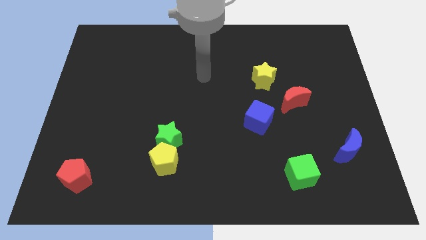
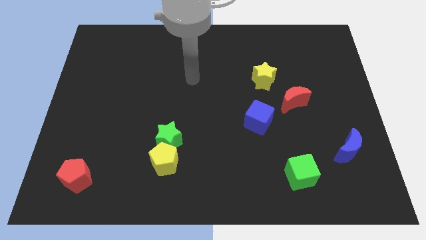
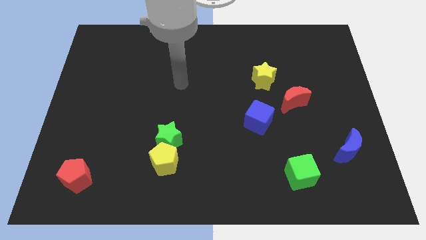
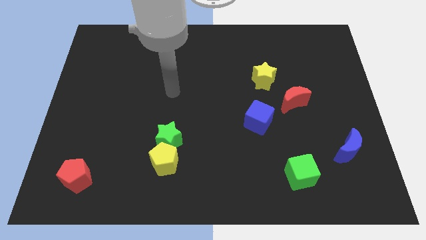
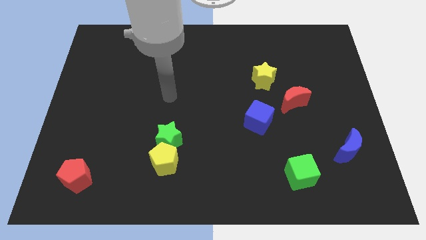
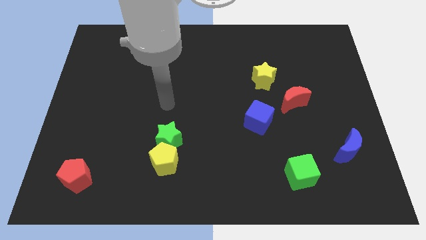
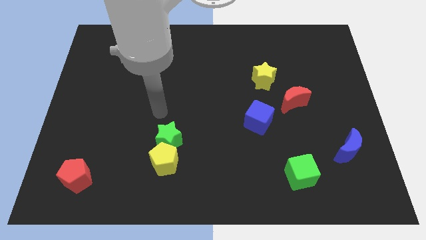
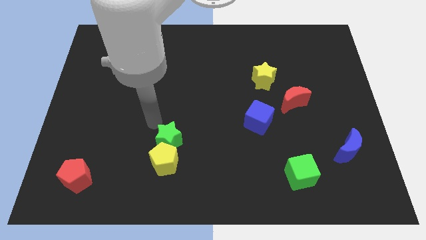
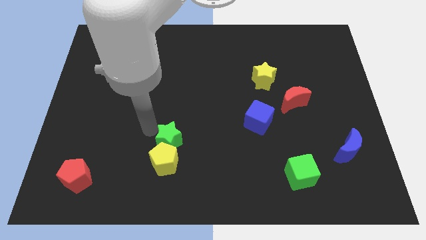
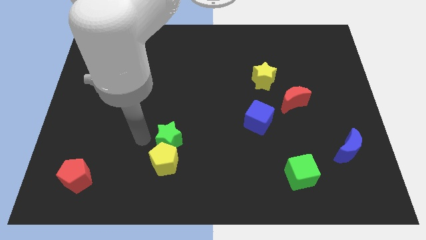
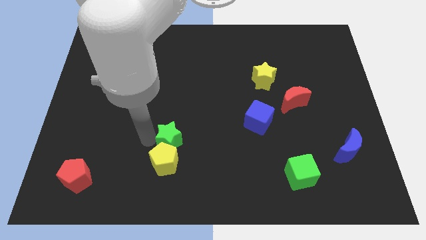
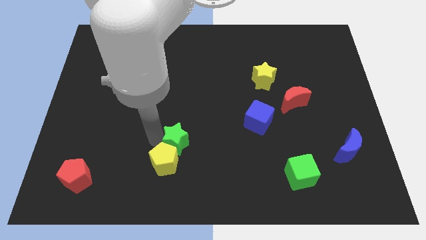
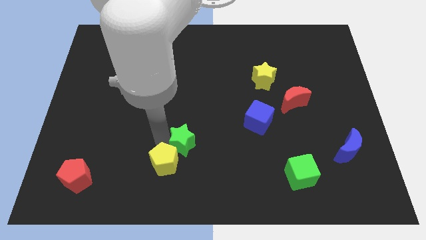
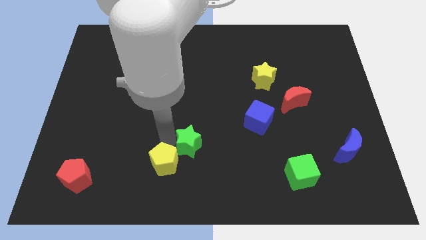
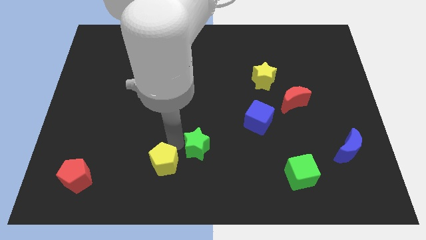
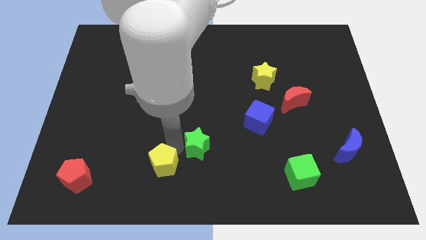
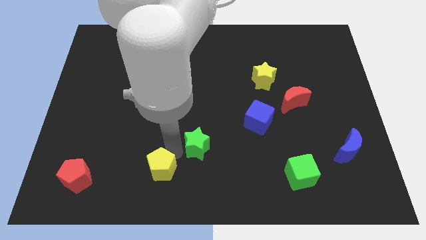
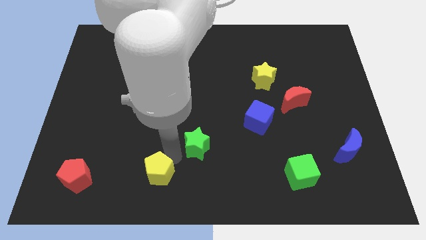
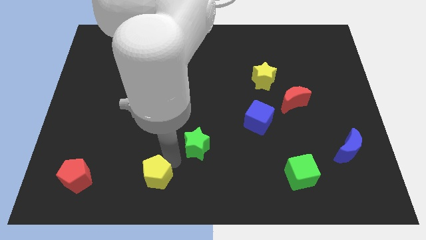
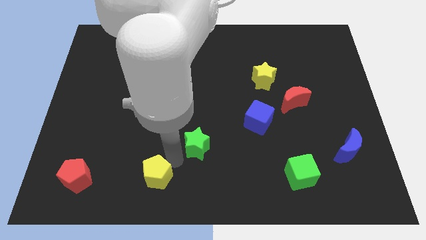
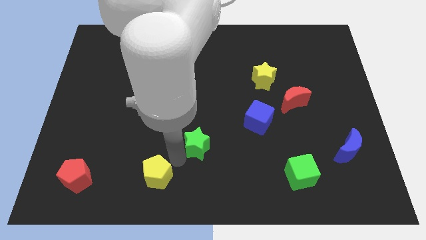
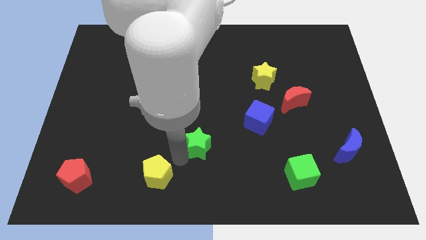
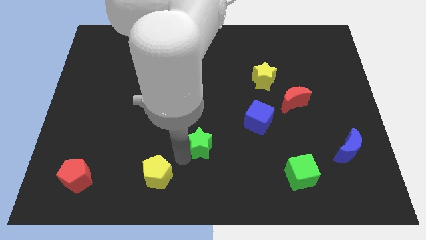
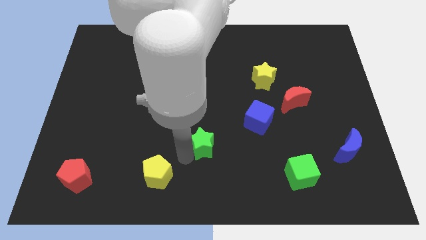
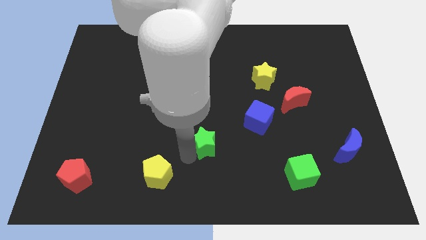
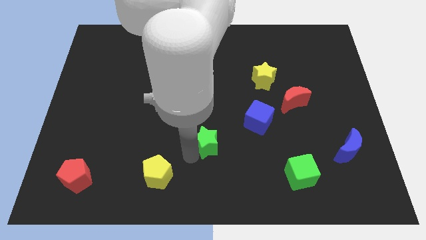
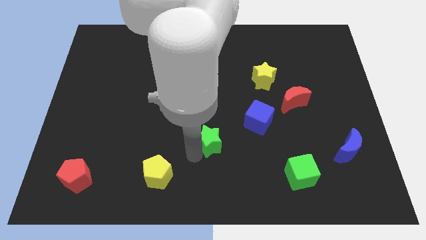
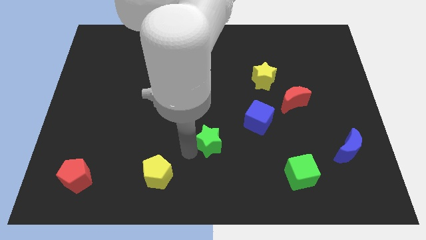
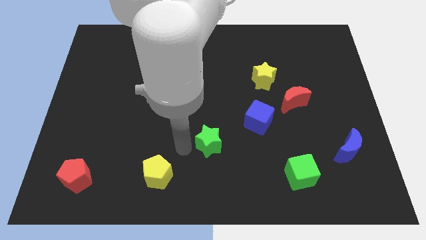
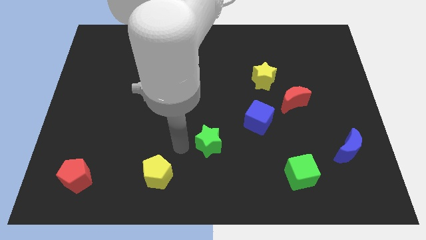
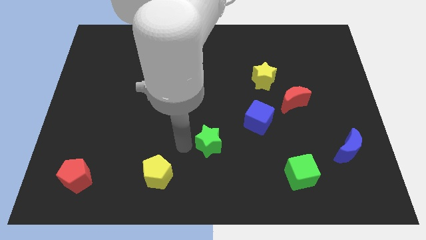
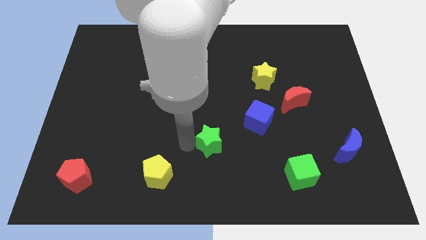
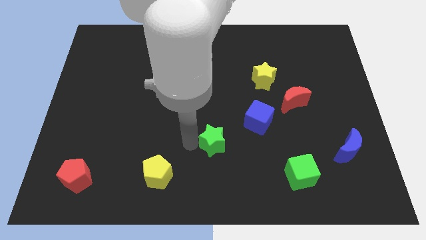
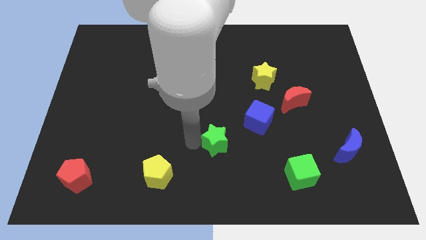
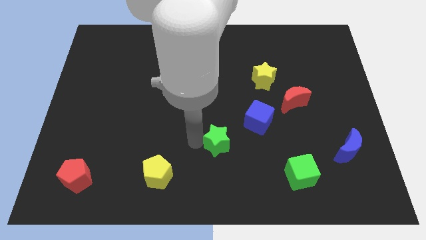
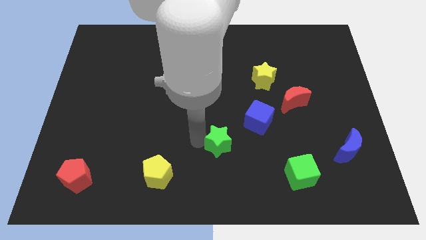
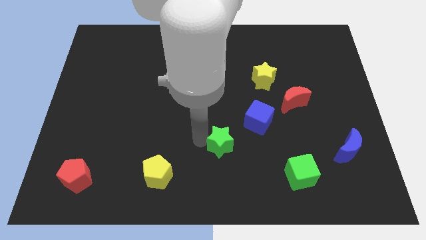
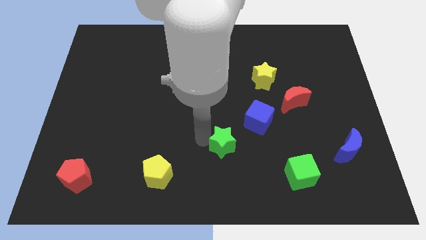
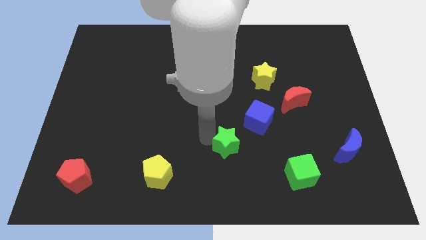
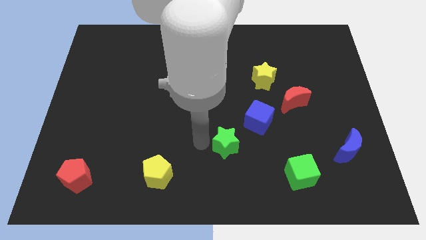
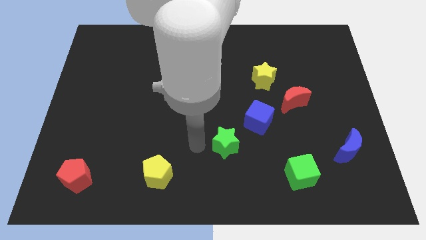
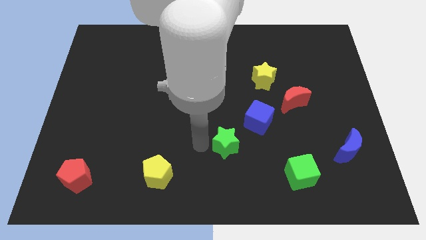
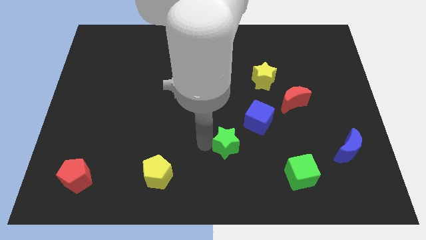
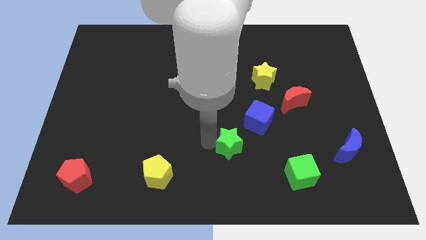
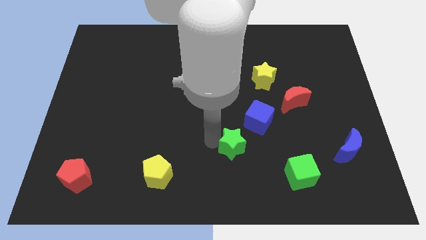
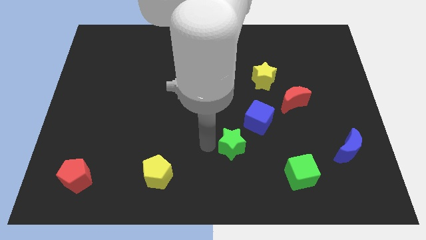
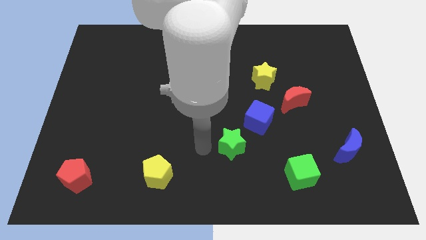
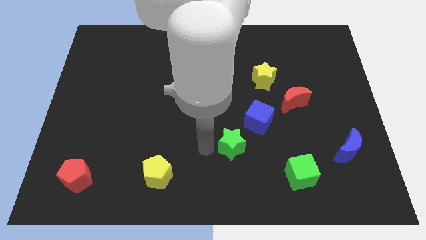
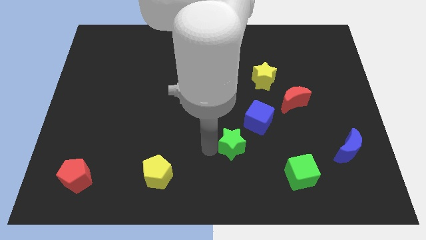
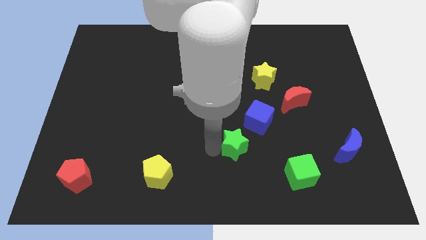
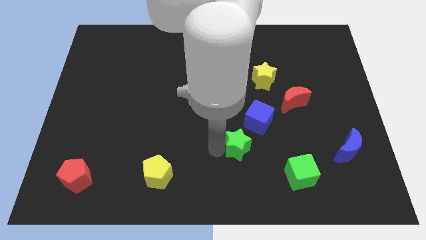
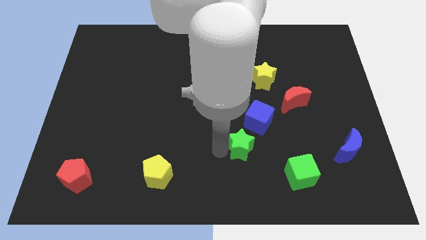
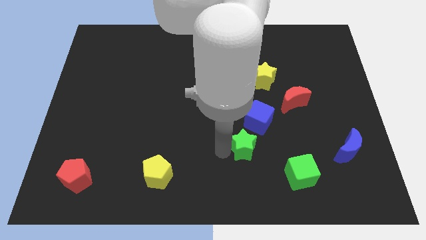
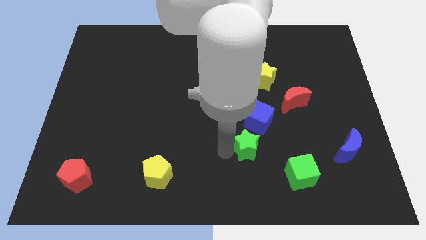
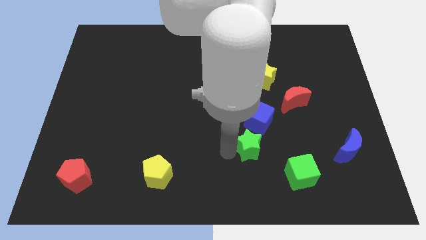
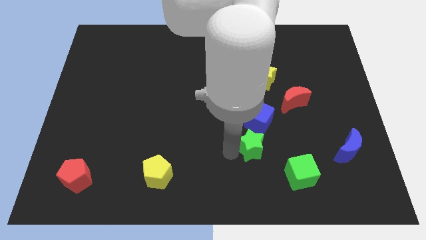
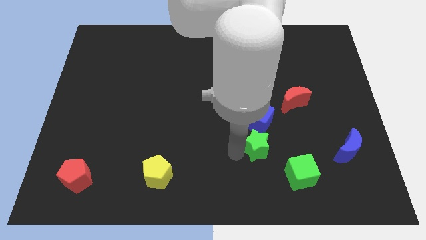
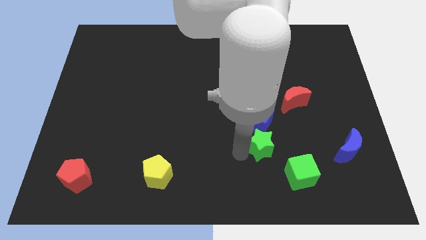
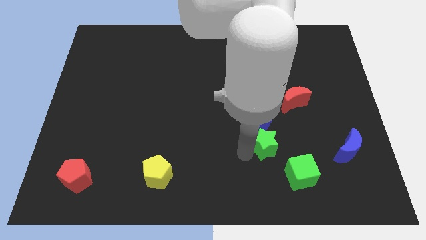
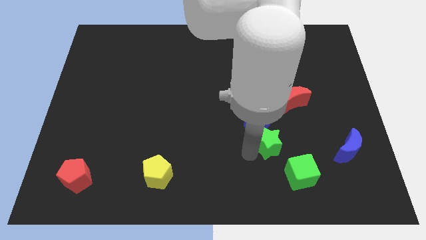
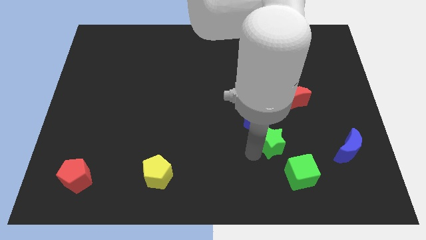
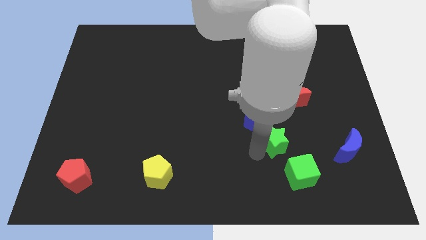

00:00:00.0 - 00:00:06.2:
move the green star above the green cube

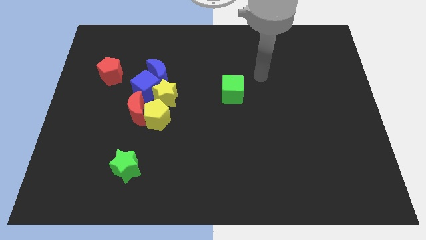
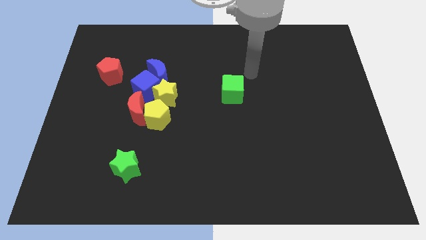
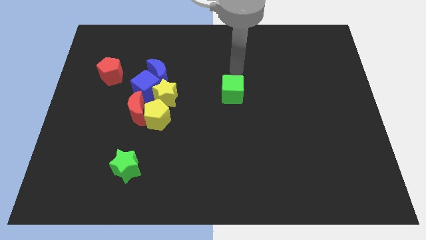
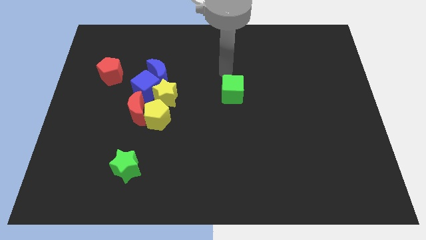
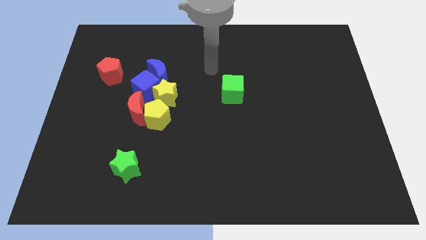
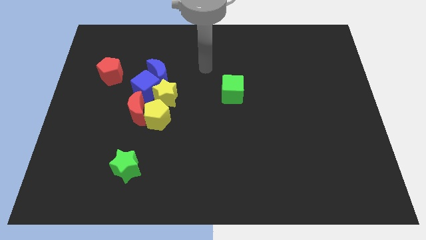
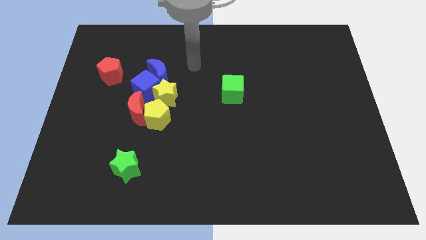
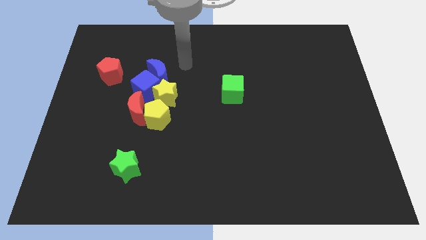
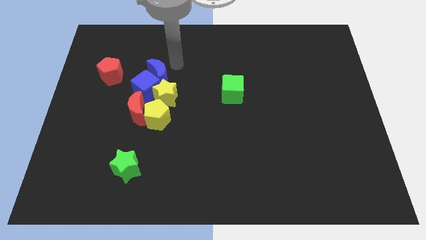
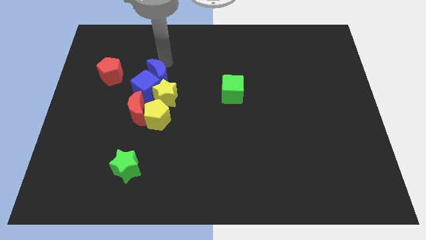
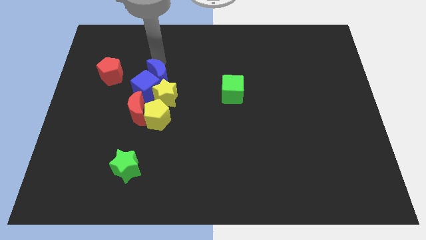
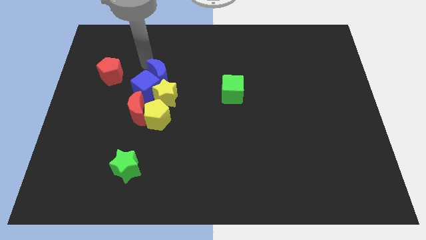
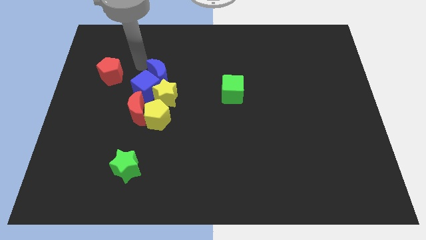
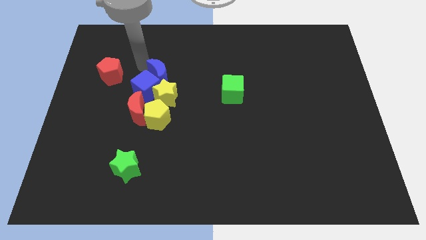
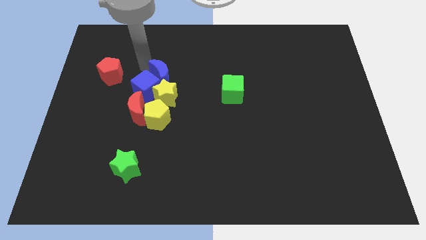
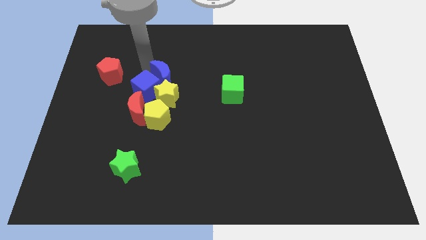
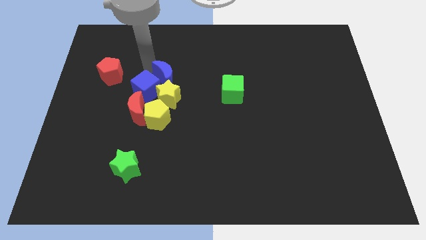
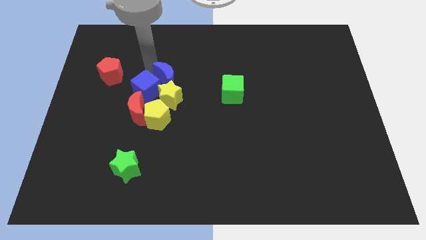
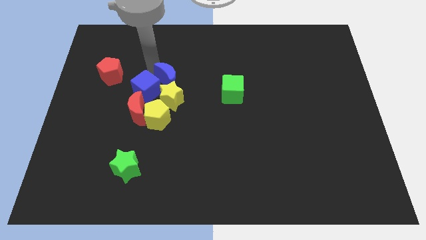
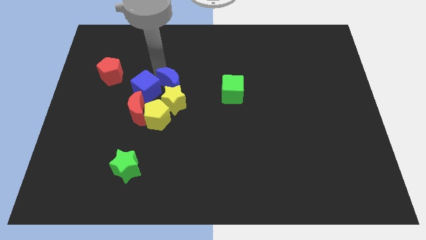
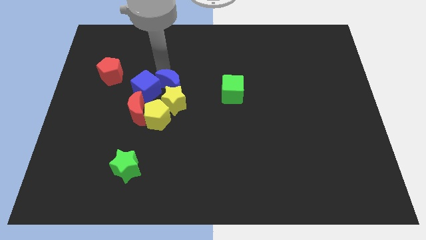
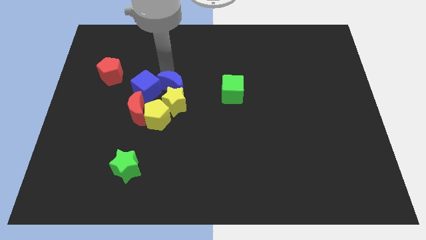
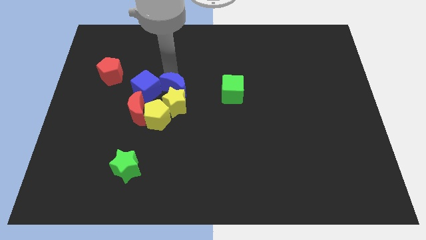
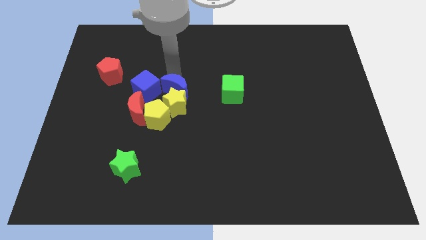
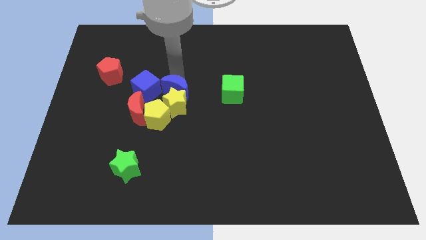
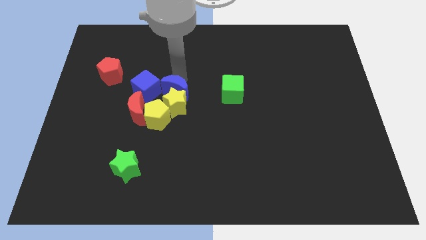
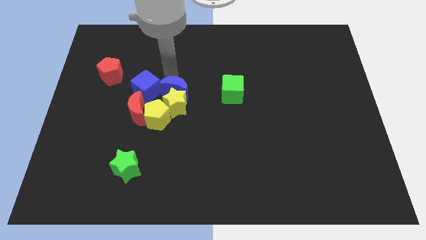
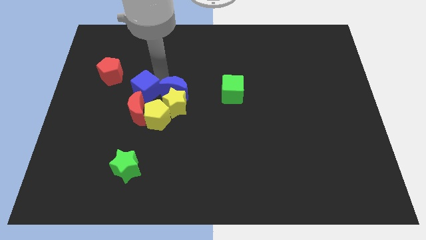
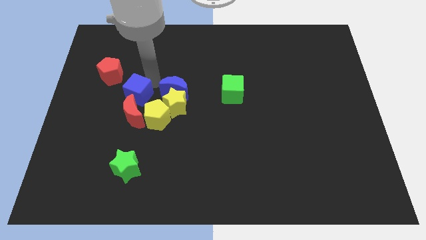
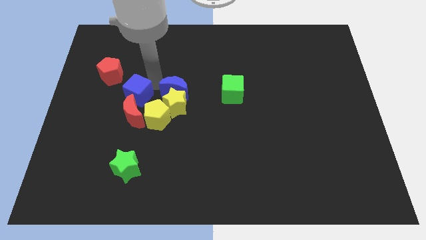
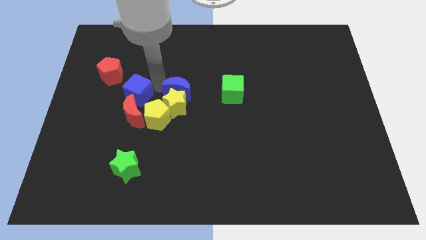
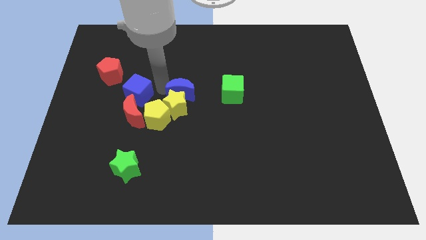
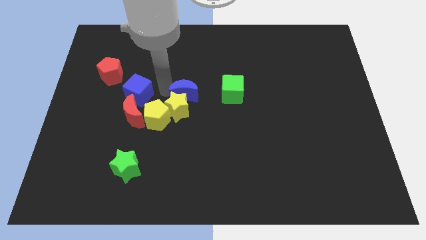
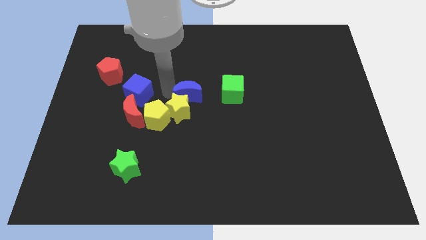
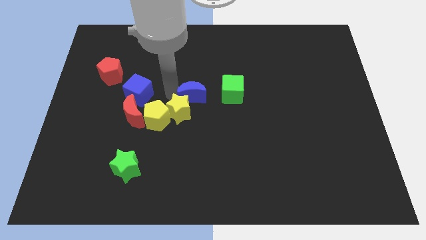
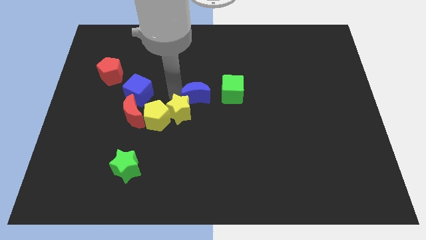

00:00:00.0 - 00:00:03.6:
slide the blue moon just right of the yellow star
